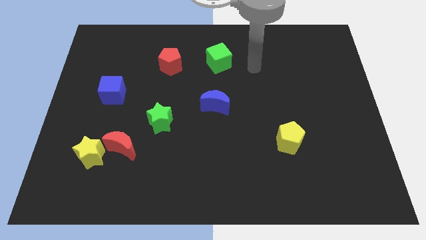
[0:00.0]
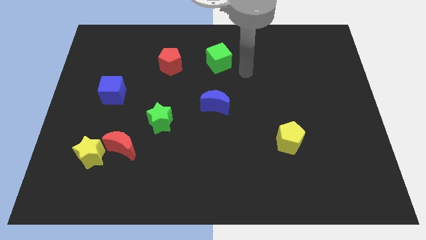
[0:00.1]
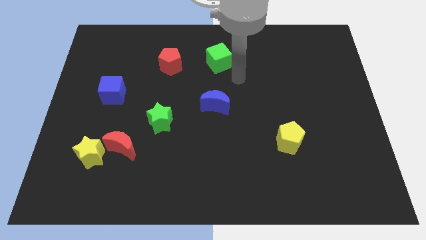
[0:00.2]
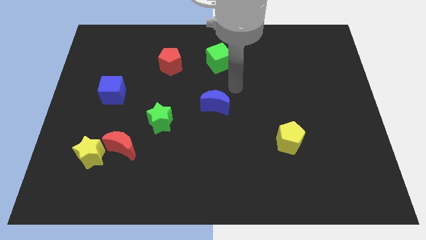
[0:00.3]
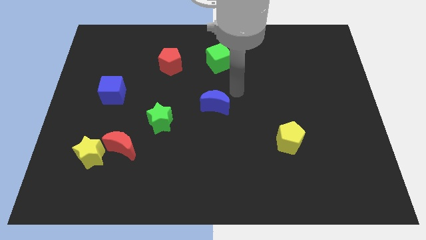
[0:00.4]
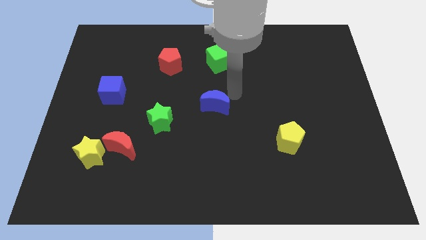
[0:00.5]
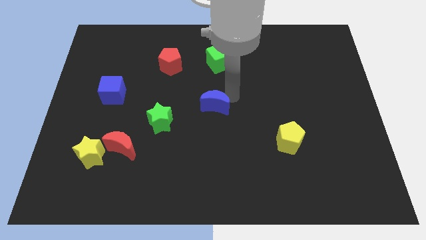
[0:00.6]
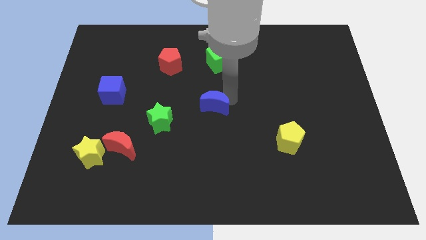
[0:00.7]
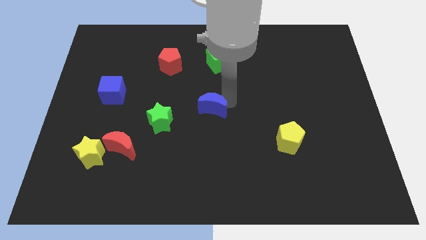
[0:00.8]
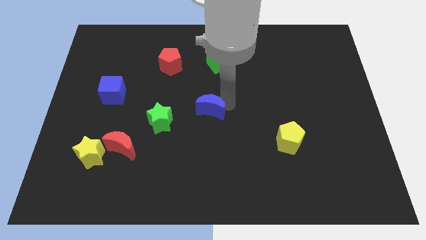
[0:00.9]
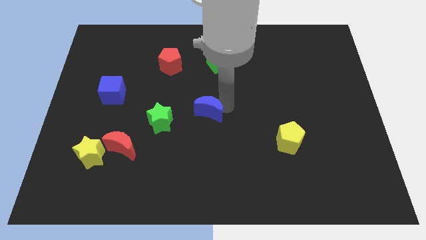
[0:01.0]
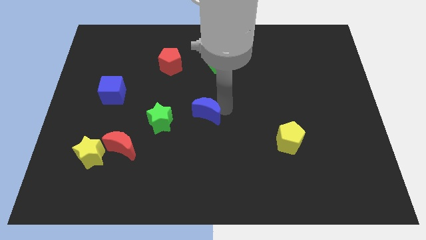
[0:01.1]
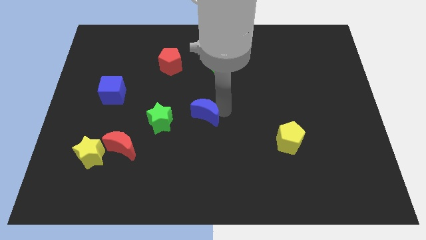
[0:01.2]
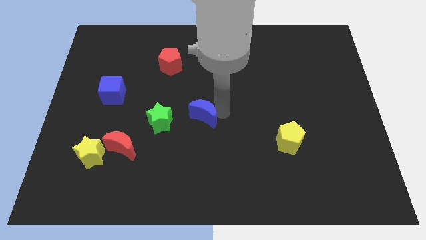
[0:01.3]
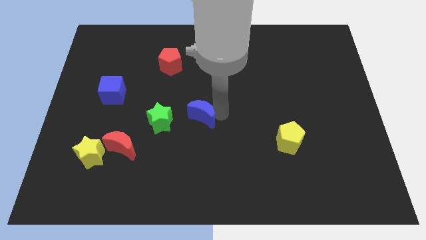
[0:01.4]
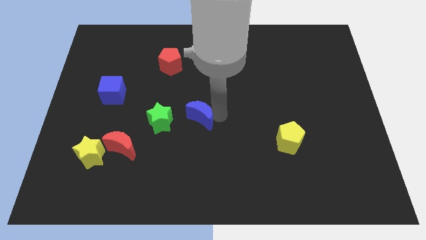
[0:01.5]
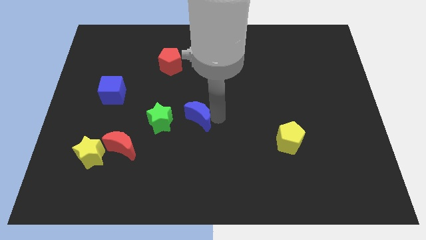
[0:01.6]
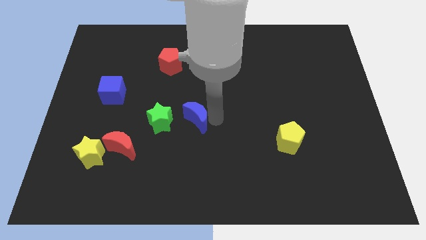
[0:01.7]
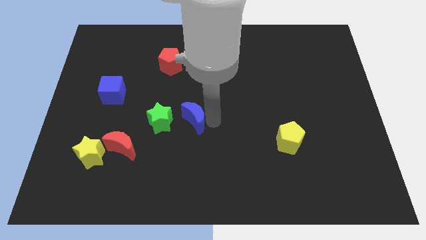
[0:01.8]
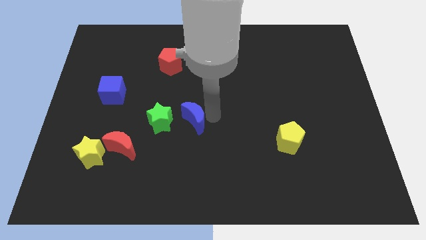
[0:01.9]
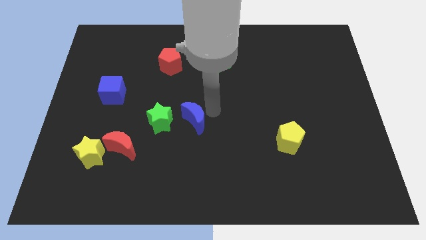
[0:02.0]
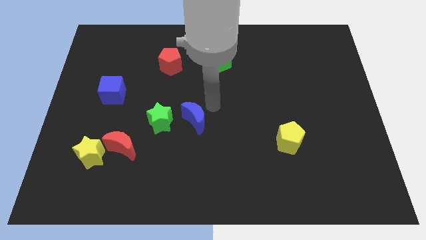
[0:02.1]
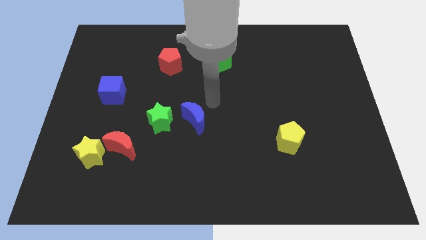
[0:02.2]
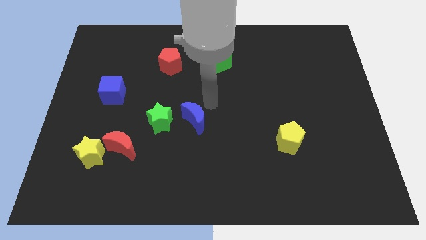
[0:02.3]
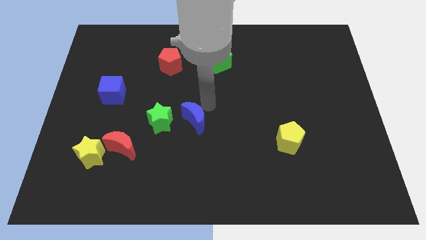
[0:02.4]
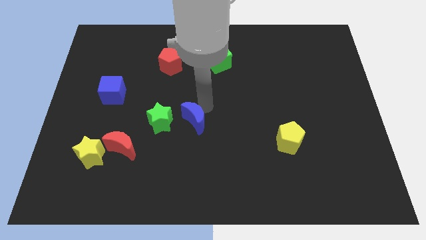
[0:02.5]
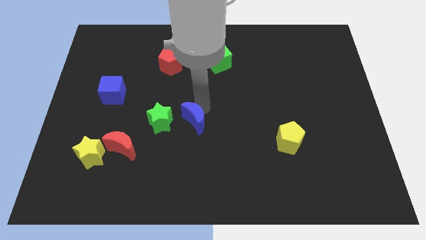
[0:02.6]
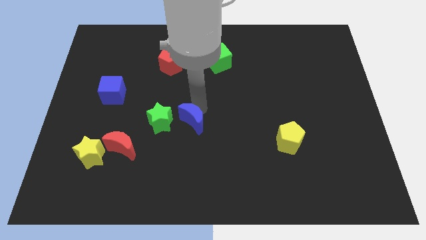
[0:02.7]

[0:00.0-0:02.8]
slightly slide the blue moon diagonally downwards and to the left

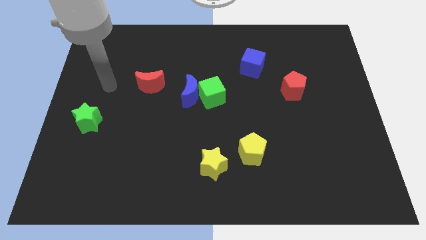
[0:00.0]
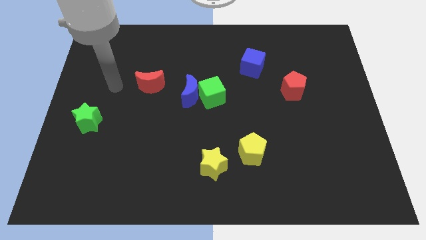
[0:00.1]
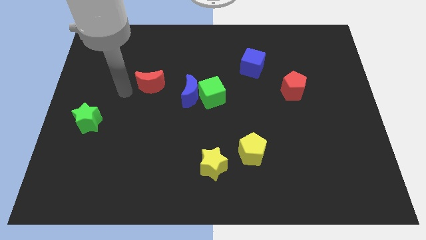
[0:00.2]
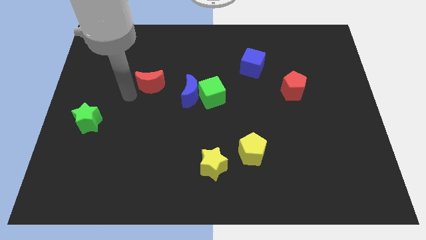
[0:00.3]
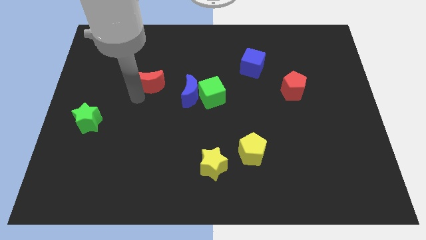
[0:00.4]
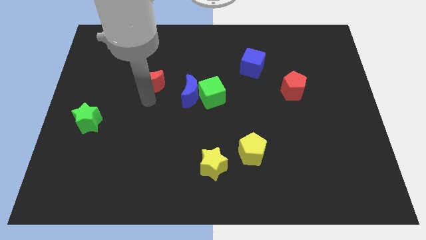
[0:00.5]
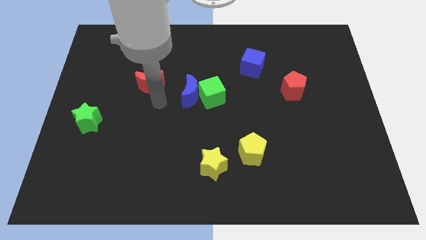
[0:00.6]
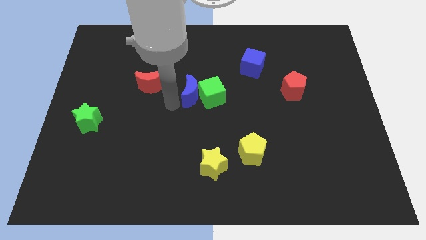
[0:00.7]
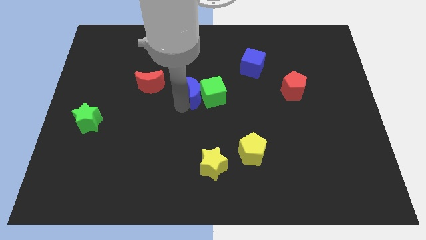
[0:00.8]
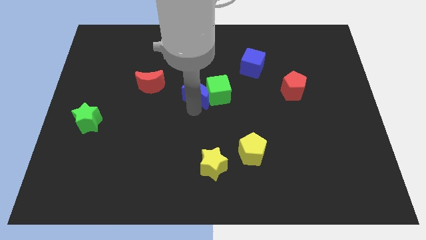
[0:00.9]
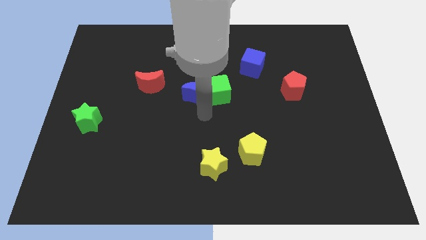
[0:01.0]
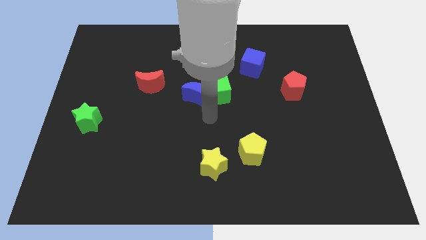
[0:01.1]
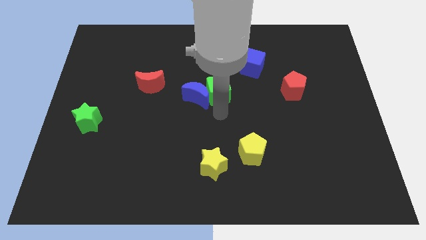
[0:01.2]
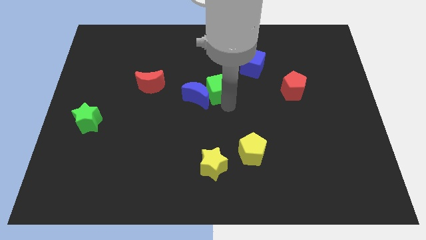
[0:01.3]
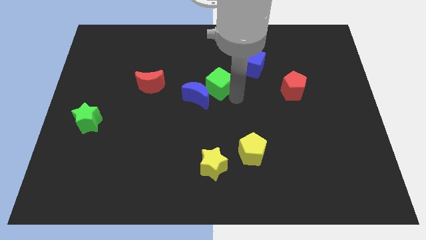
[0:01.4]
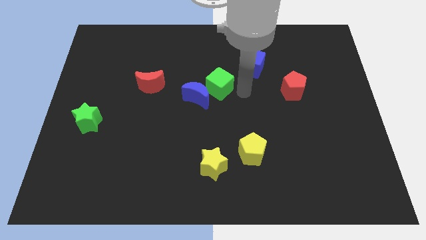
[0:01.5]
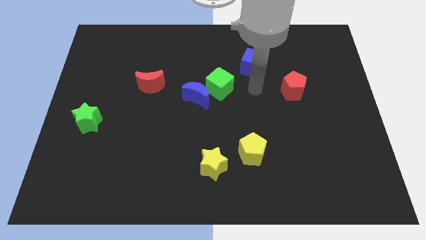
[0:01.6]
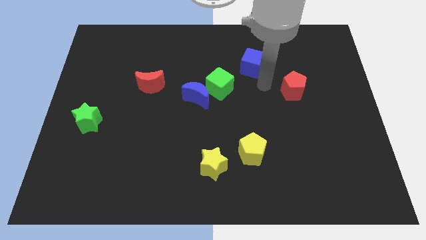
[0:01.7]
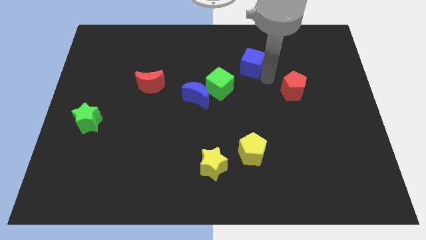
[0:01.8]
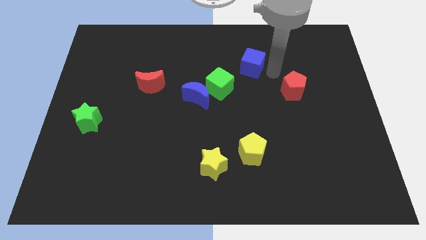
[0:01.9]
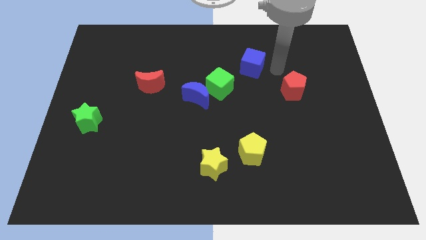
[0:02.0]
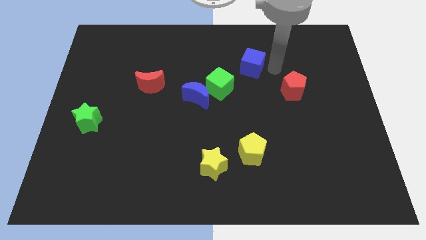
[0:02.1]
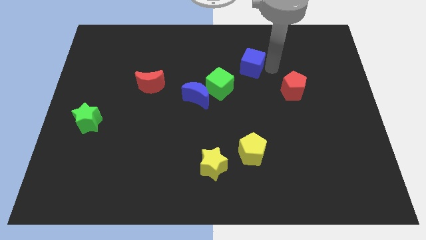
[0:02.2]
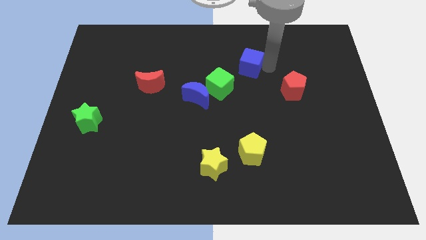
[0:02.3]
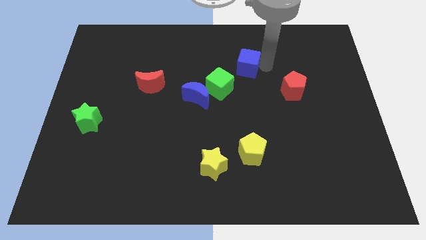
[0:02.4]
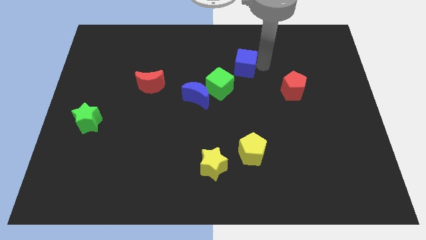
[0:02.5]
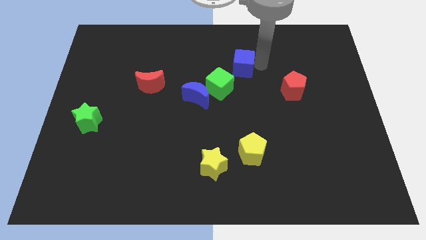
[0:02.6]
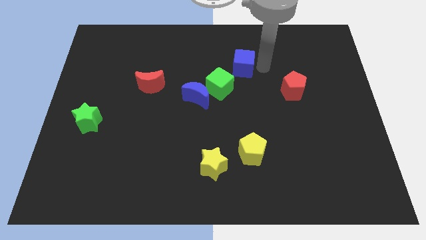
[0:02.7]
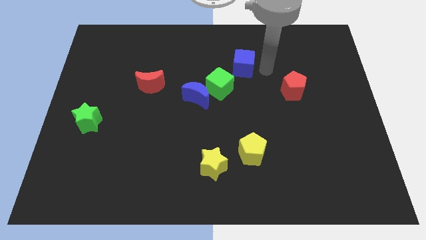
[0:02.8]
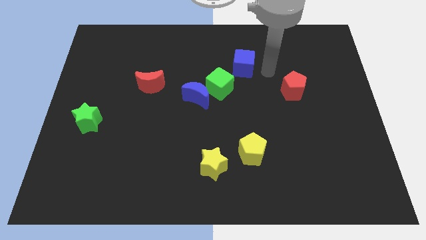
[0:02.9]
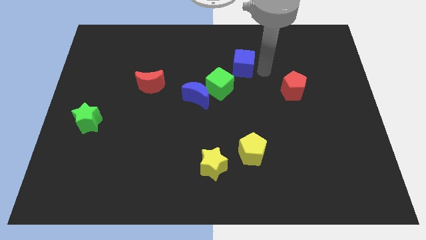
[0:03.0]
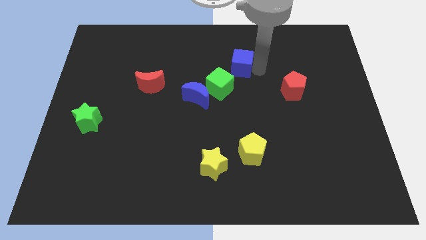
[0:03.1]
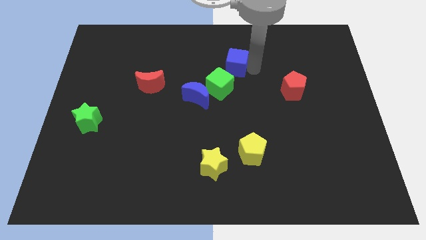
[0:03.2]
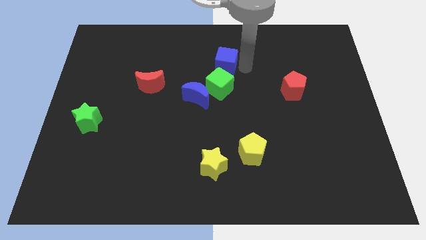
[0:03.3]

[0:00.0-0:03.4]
slide the blue cube a little left

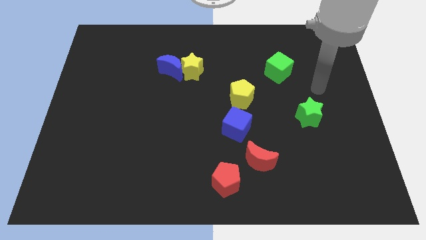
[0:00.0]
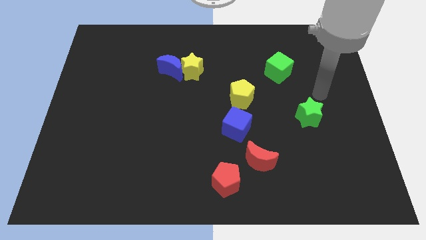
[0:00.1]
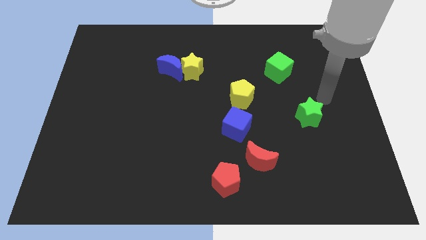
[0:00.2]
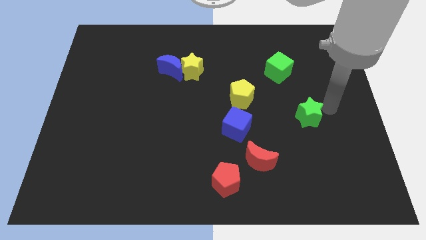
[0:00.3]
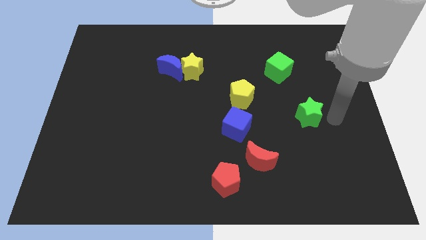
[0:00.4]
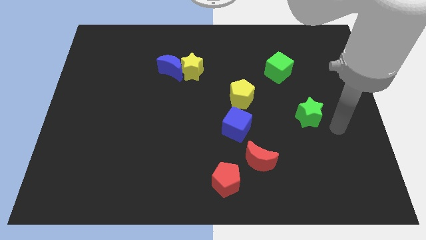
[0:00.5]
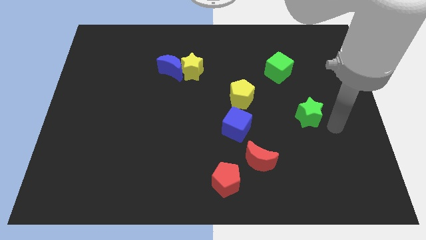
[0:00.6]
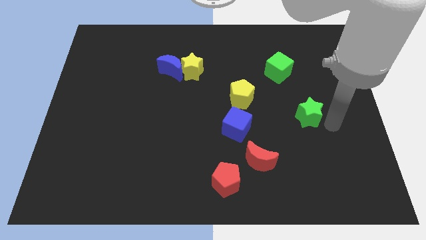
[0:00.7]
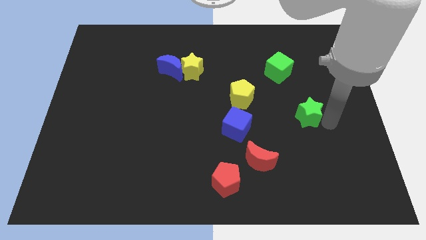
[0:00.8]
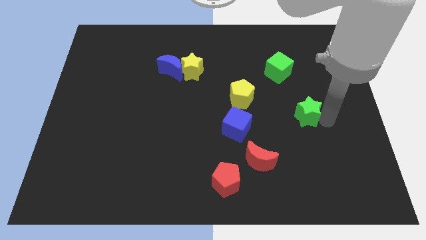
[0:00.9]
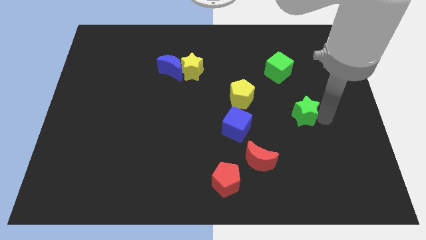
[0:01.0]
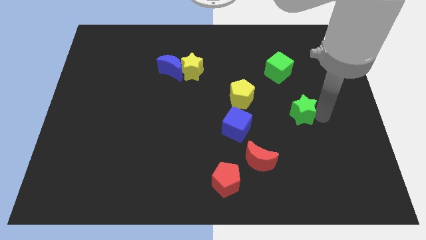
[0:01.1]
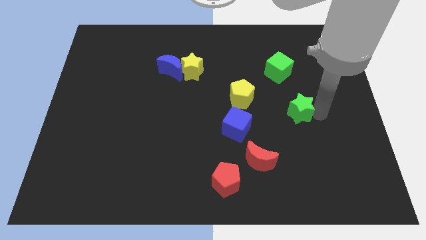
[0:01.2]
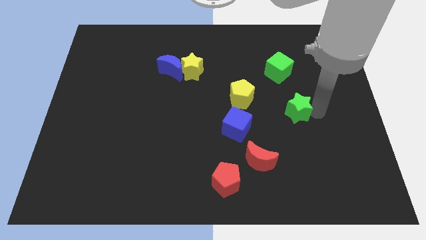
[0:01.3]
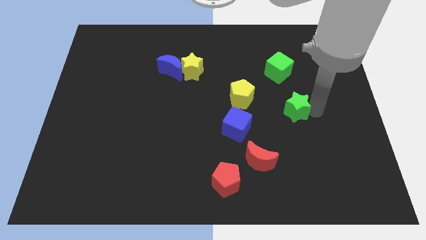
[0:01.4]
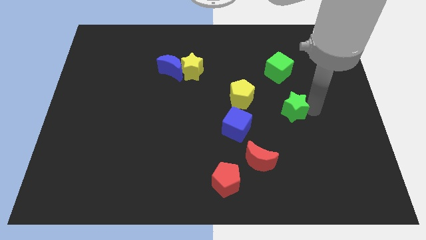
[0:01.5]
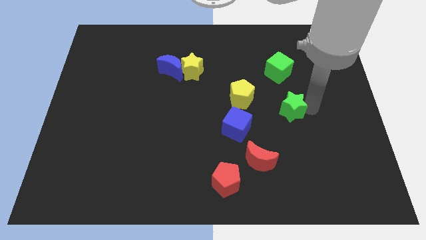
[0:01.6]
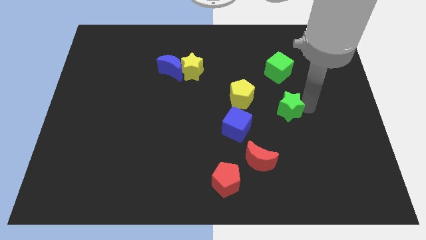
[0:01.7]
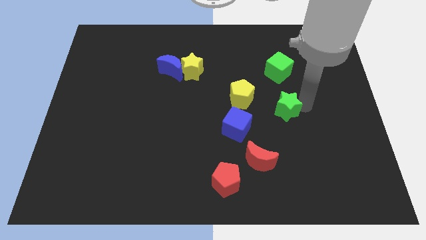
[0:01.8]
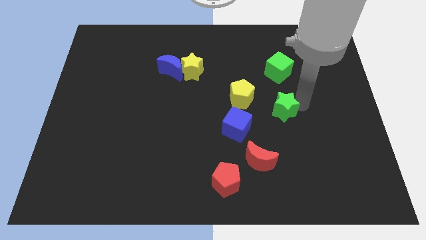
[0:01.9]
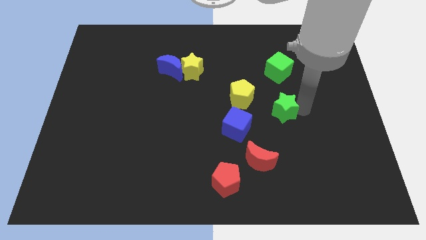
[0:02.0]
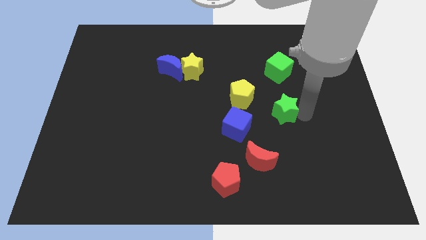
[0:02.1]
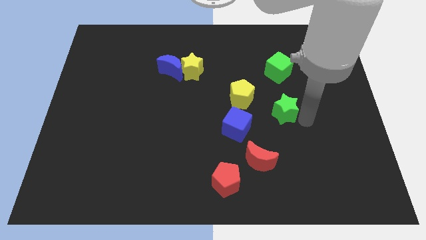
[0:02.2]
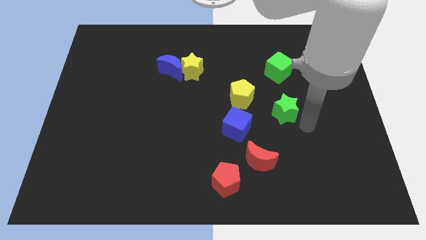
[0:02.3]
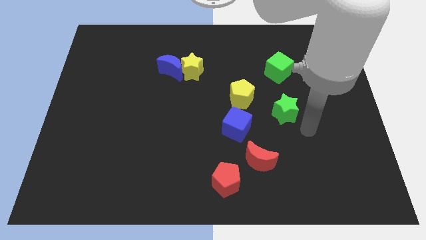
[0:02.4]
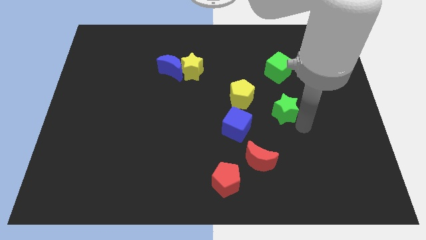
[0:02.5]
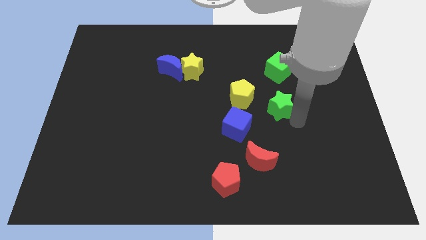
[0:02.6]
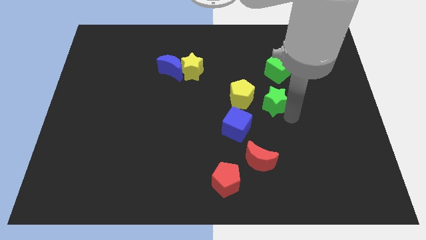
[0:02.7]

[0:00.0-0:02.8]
slightly slide the green star left
